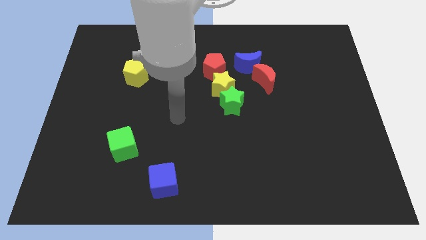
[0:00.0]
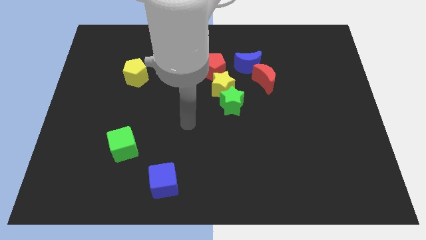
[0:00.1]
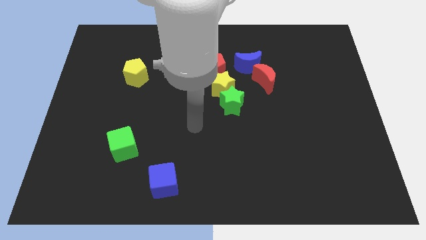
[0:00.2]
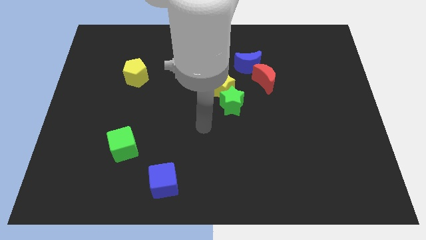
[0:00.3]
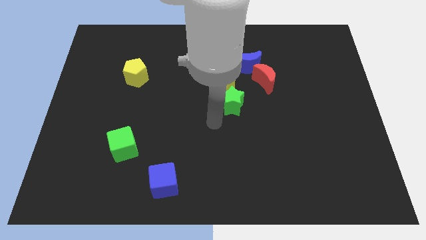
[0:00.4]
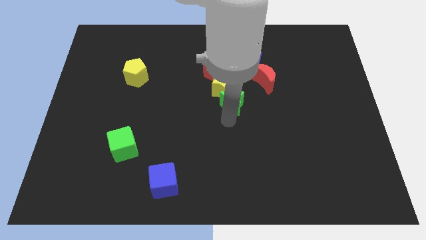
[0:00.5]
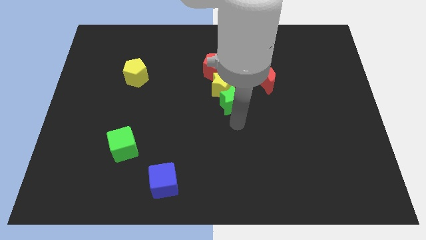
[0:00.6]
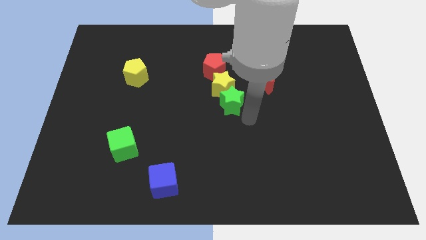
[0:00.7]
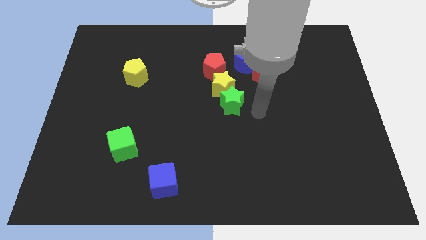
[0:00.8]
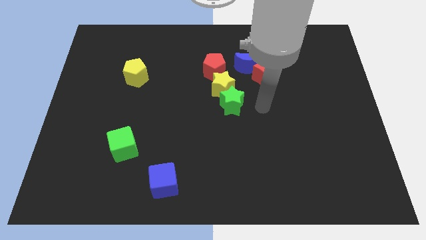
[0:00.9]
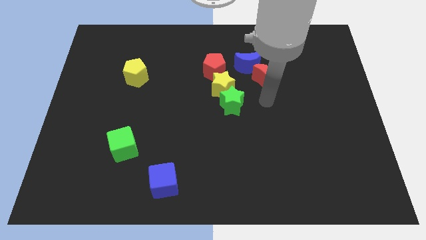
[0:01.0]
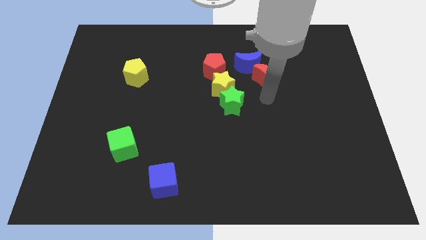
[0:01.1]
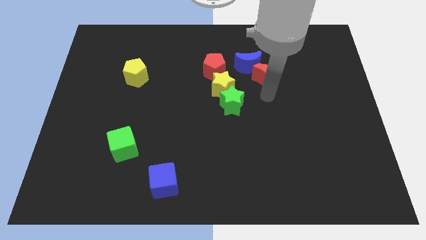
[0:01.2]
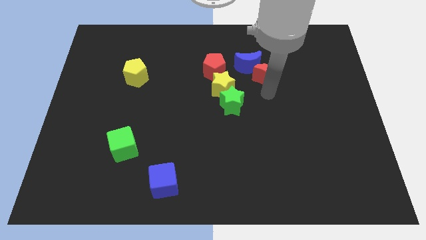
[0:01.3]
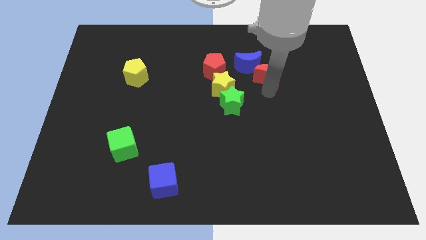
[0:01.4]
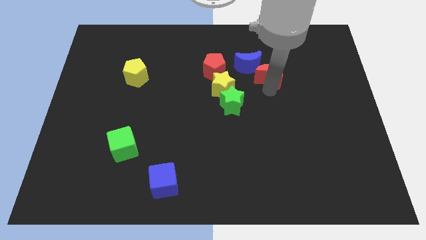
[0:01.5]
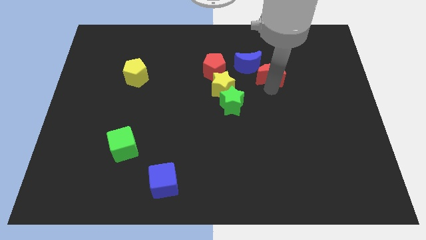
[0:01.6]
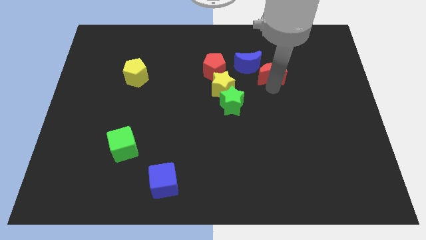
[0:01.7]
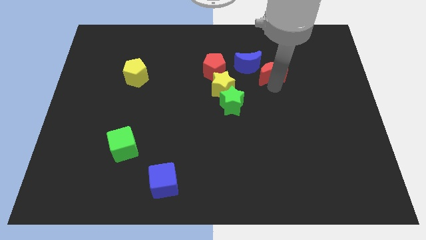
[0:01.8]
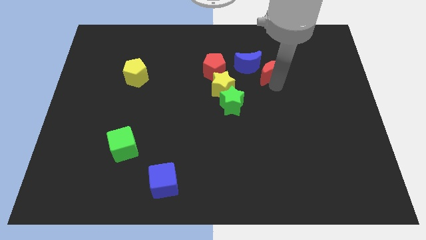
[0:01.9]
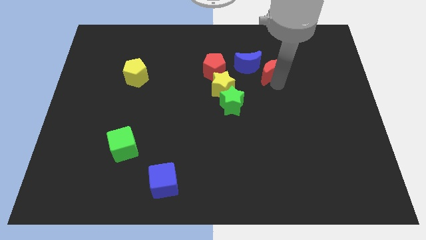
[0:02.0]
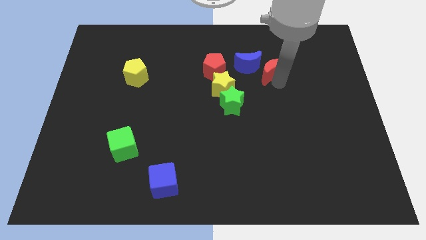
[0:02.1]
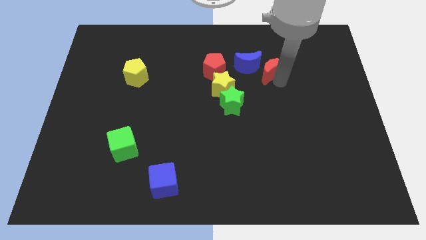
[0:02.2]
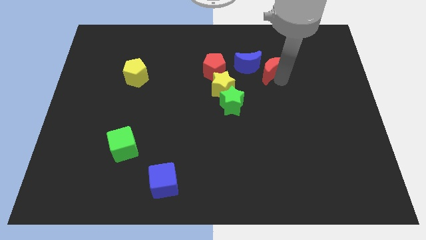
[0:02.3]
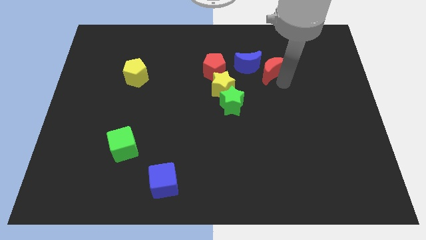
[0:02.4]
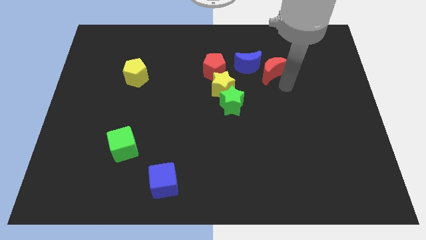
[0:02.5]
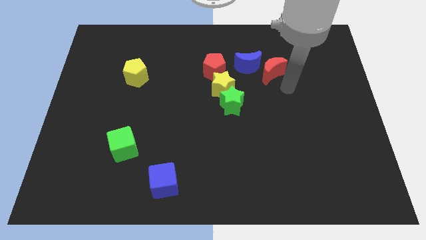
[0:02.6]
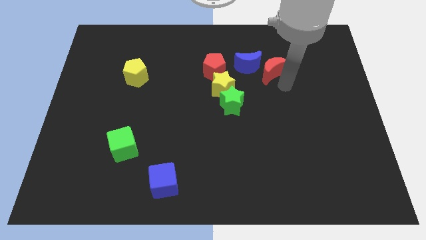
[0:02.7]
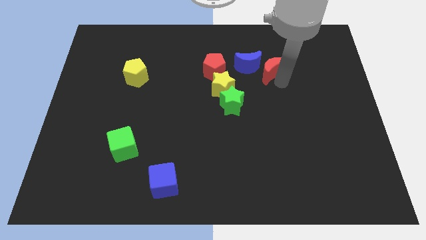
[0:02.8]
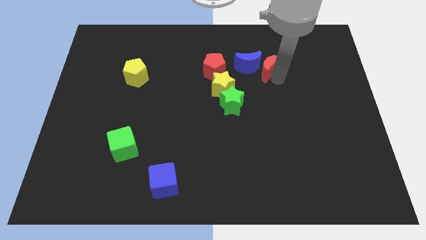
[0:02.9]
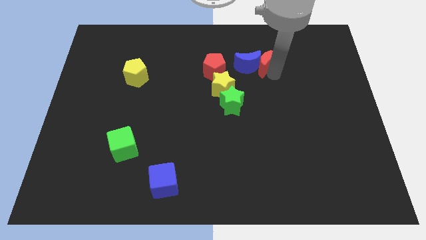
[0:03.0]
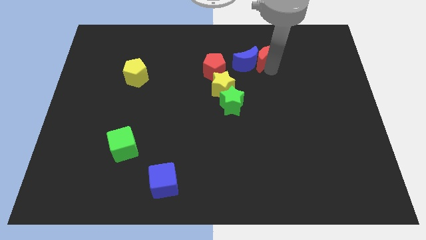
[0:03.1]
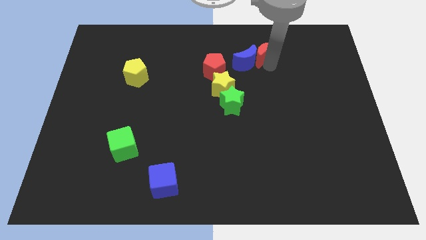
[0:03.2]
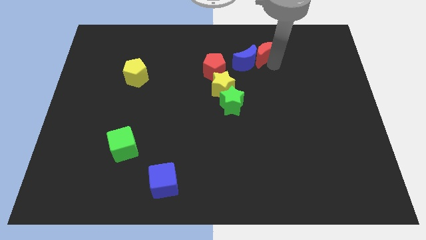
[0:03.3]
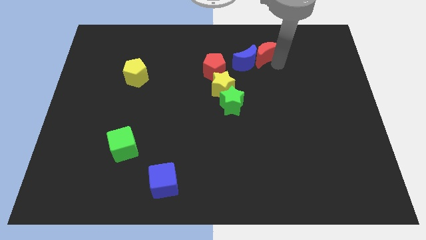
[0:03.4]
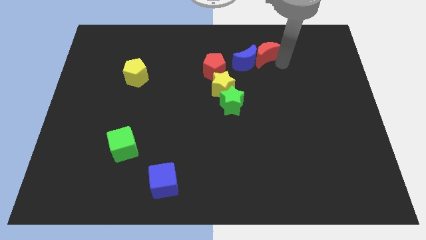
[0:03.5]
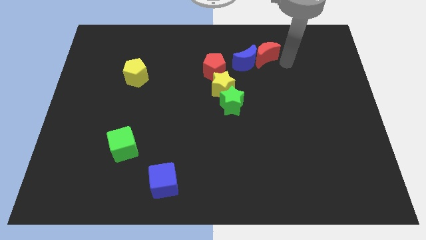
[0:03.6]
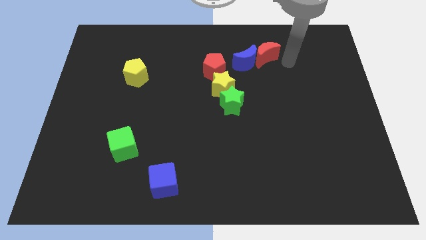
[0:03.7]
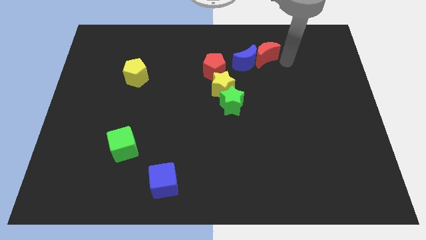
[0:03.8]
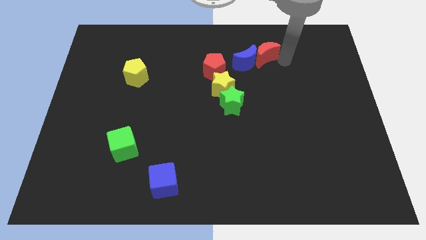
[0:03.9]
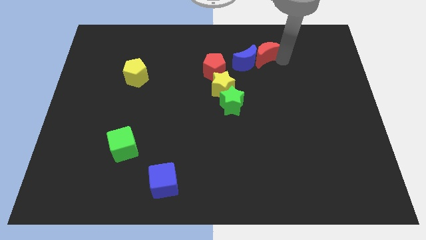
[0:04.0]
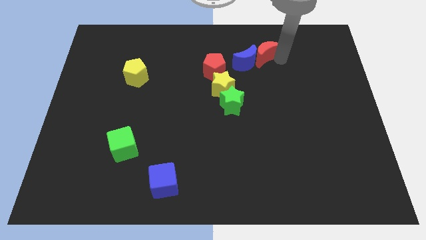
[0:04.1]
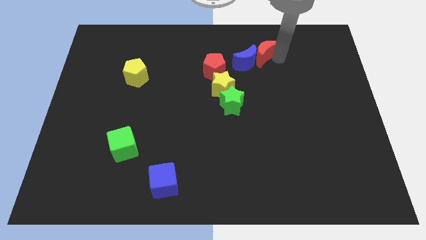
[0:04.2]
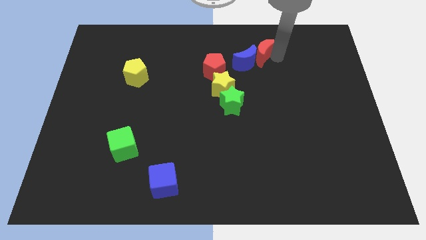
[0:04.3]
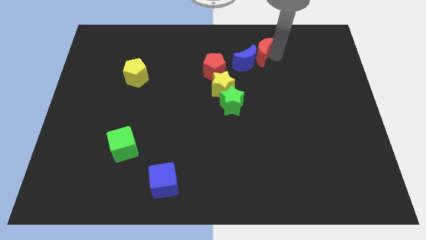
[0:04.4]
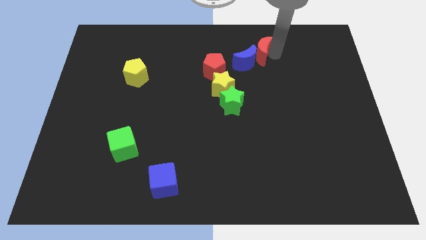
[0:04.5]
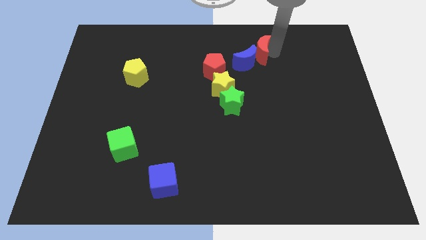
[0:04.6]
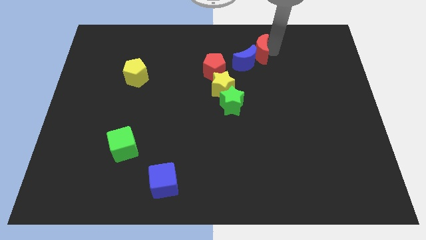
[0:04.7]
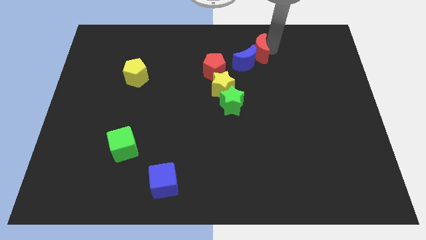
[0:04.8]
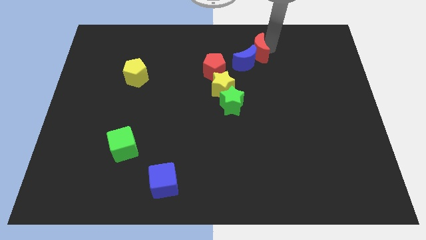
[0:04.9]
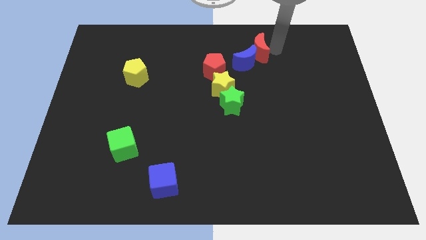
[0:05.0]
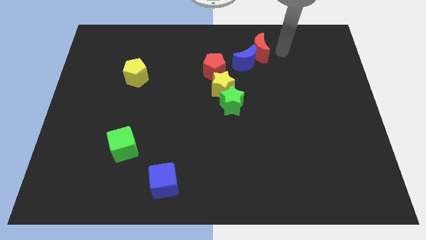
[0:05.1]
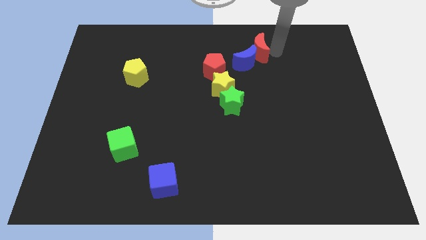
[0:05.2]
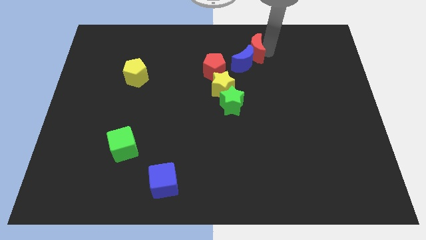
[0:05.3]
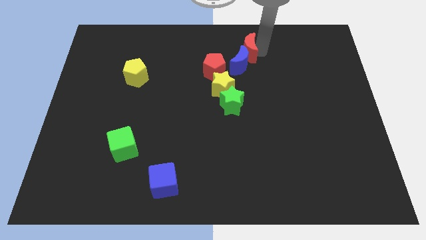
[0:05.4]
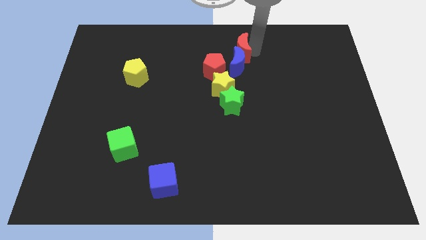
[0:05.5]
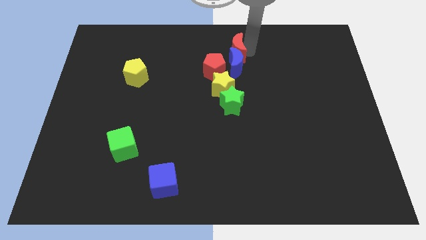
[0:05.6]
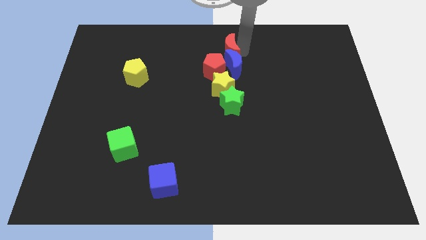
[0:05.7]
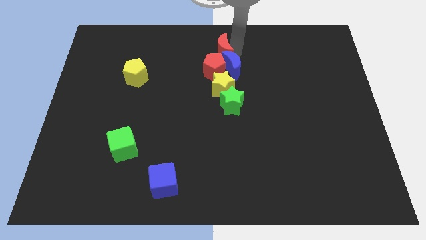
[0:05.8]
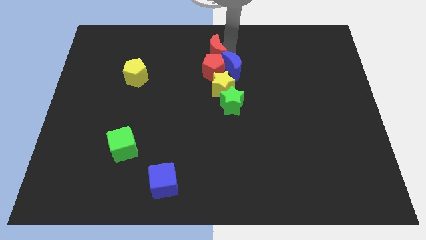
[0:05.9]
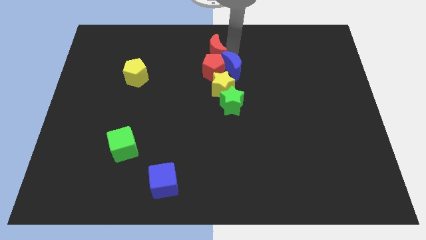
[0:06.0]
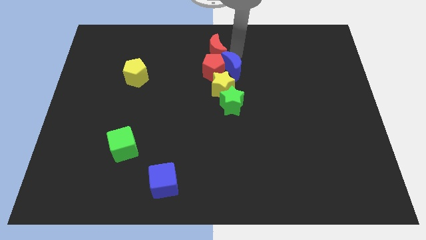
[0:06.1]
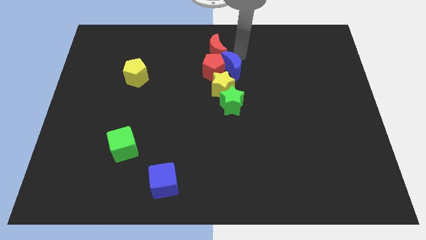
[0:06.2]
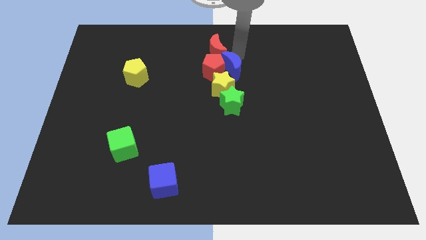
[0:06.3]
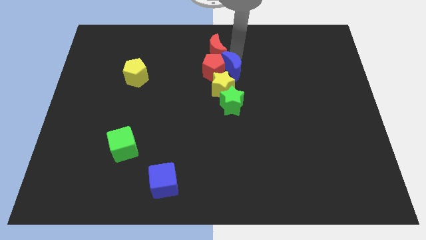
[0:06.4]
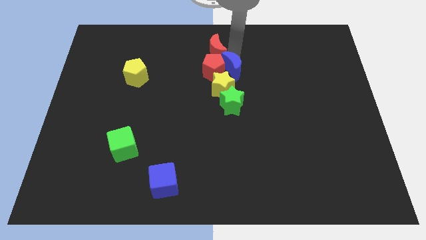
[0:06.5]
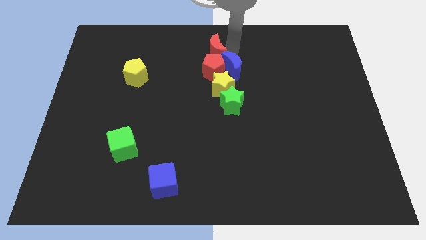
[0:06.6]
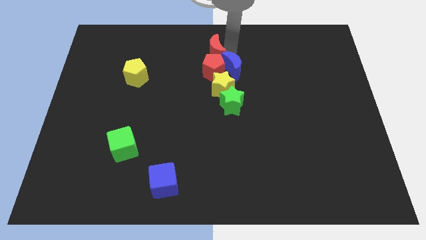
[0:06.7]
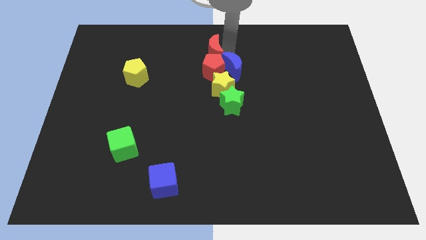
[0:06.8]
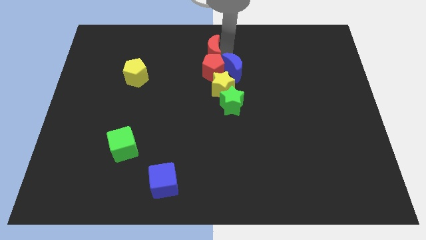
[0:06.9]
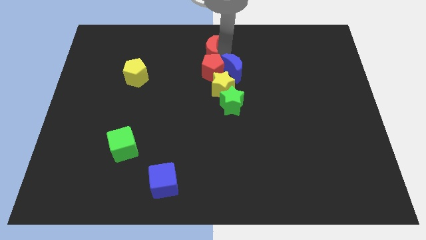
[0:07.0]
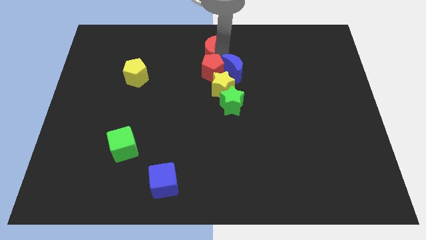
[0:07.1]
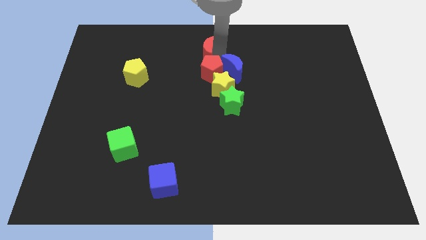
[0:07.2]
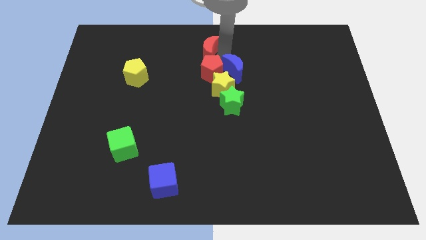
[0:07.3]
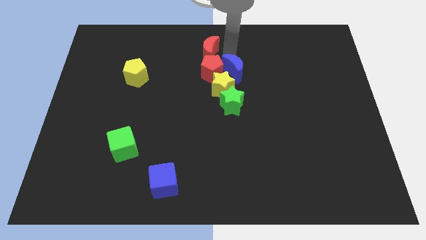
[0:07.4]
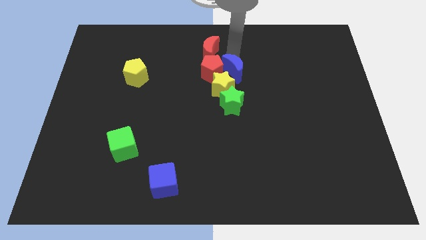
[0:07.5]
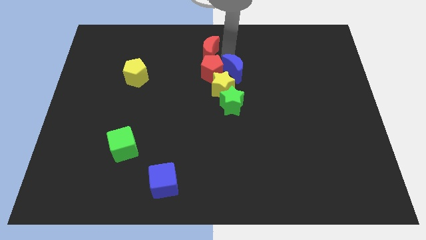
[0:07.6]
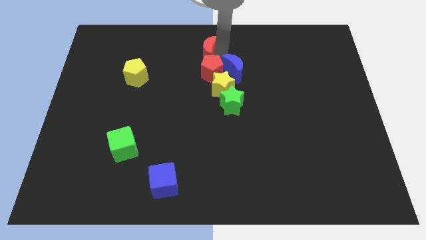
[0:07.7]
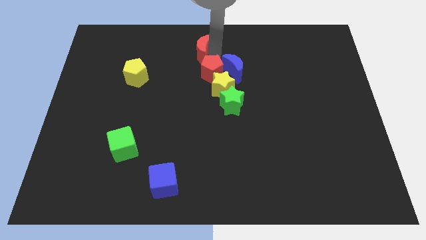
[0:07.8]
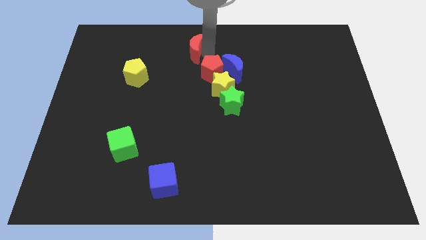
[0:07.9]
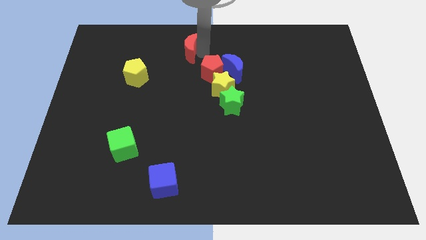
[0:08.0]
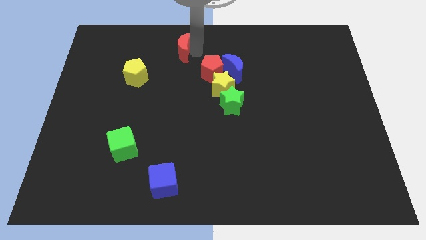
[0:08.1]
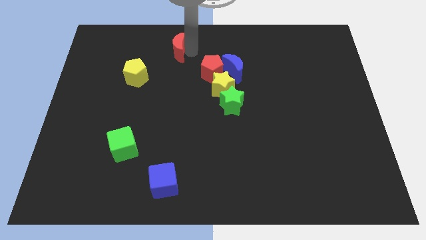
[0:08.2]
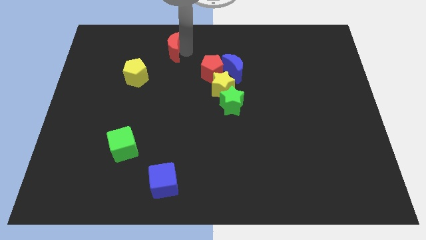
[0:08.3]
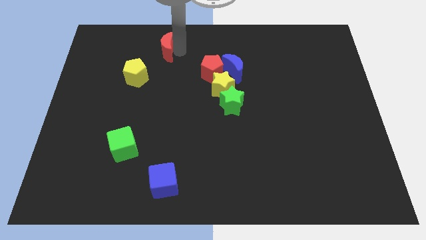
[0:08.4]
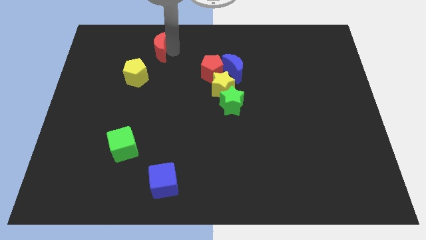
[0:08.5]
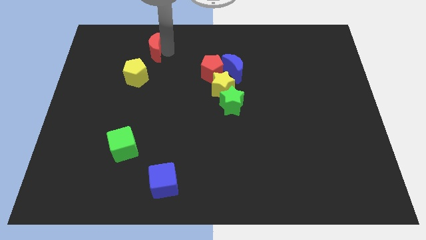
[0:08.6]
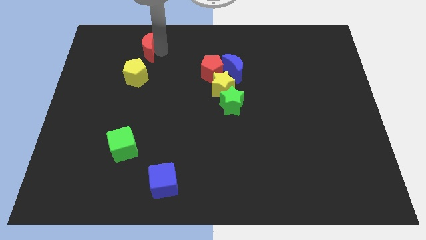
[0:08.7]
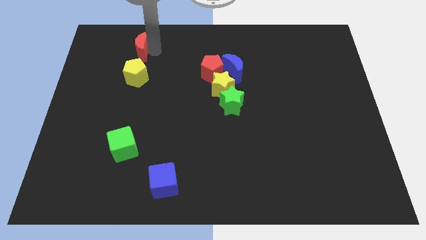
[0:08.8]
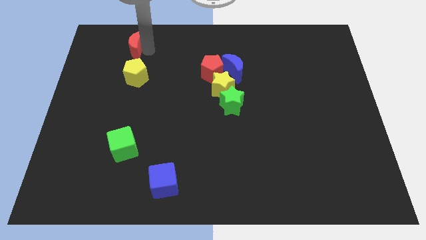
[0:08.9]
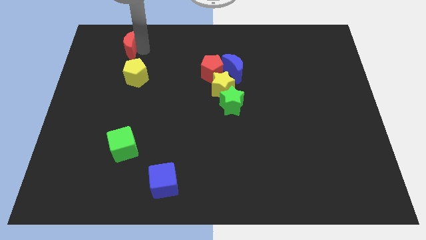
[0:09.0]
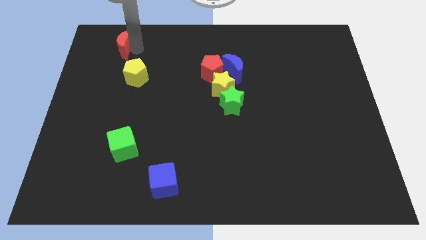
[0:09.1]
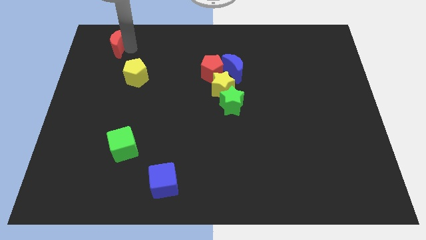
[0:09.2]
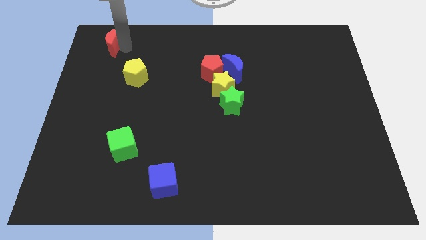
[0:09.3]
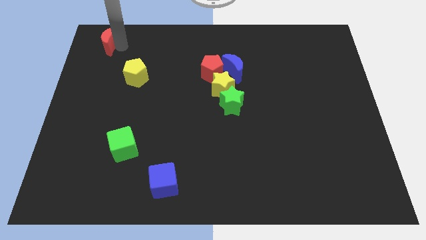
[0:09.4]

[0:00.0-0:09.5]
push the red moon to the top left
